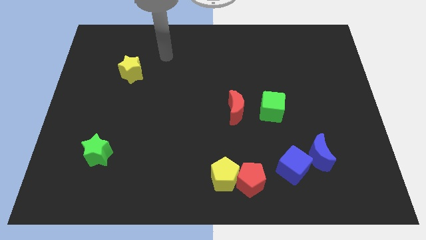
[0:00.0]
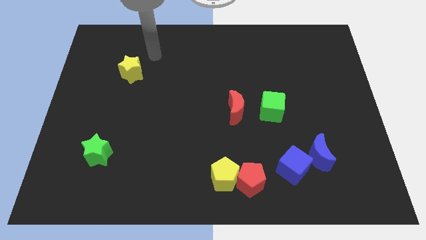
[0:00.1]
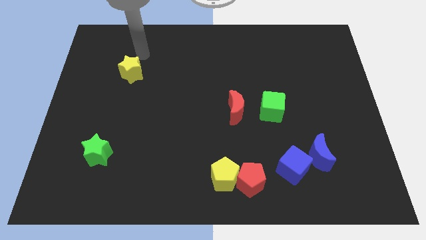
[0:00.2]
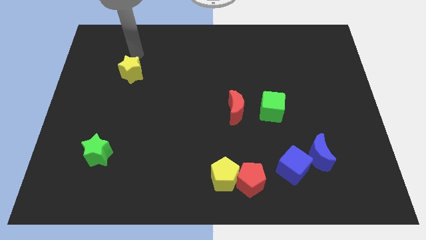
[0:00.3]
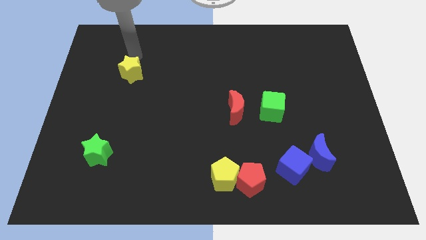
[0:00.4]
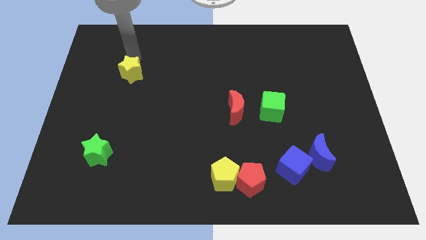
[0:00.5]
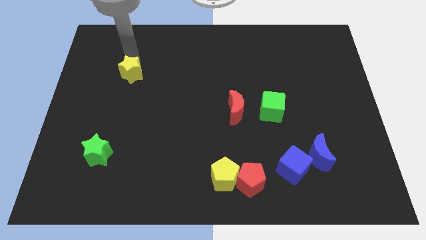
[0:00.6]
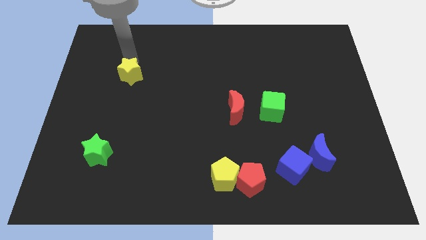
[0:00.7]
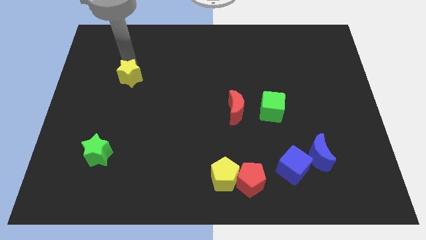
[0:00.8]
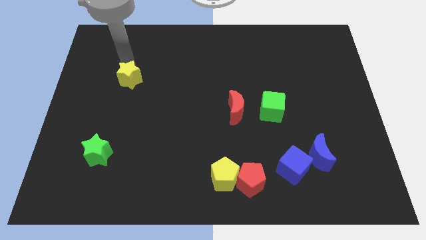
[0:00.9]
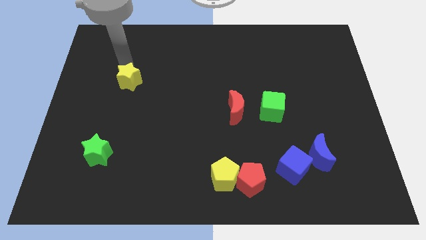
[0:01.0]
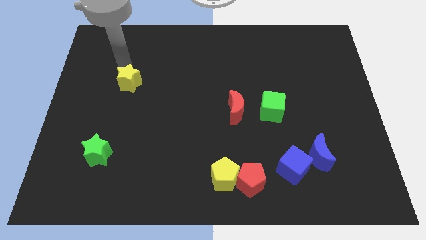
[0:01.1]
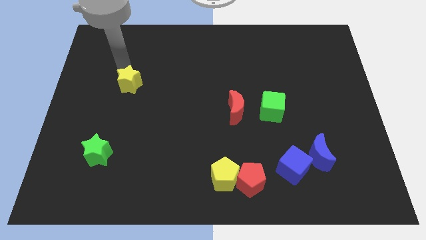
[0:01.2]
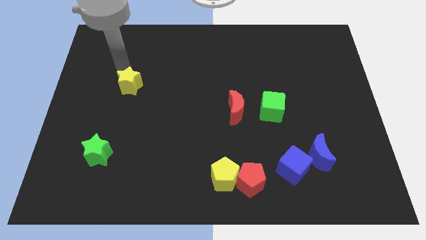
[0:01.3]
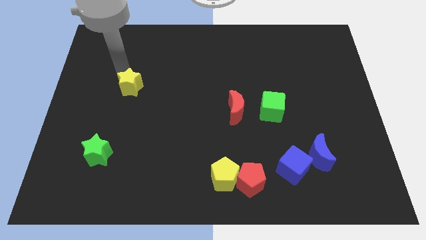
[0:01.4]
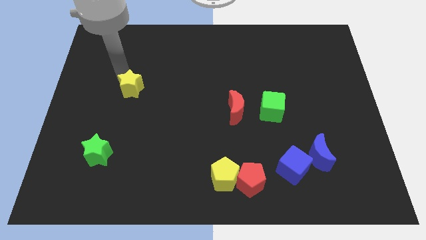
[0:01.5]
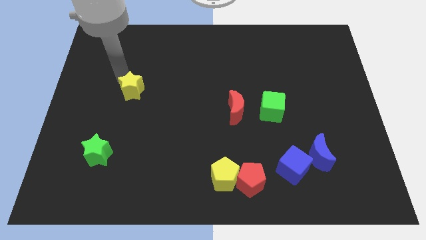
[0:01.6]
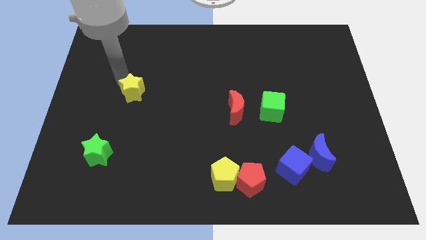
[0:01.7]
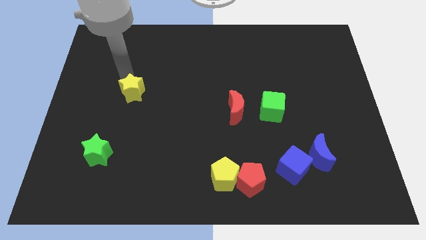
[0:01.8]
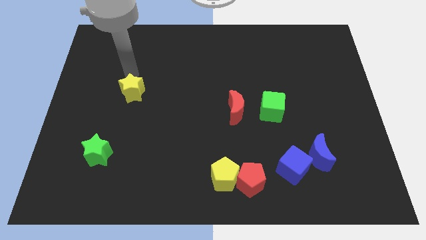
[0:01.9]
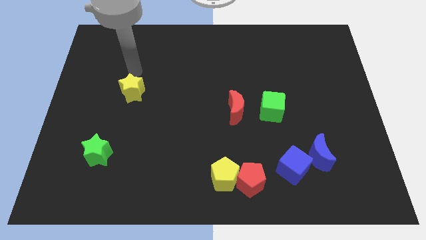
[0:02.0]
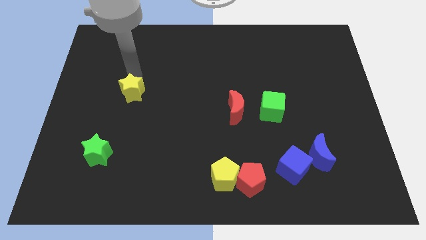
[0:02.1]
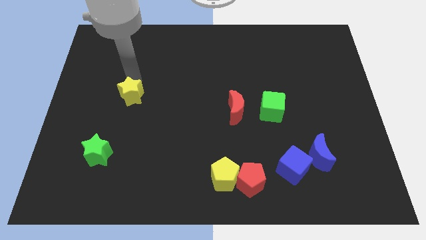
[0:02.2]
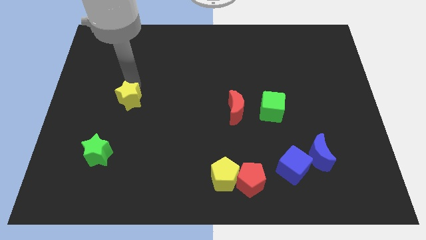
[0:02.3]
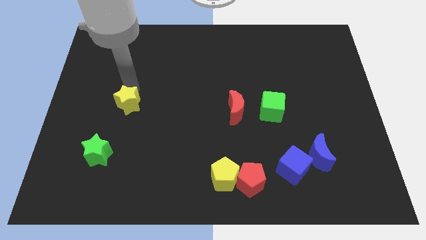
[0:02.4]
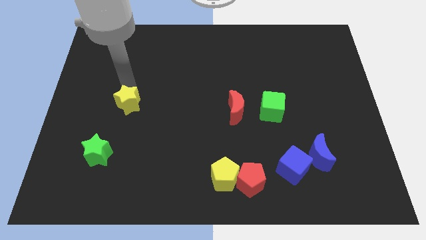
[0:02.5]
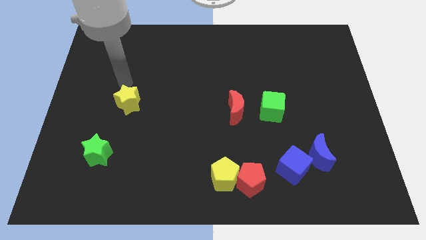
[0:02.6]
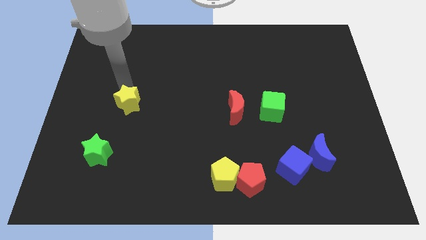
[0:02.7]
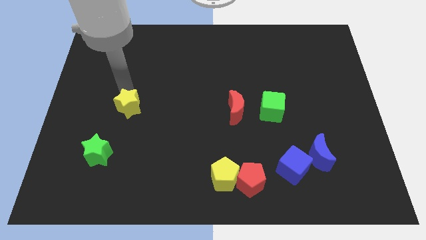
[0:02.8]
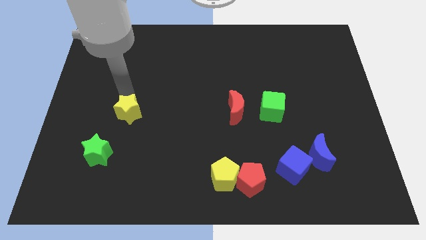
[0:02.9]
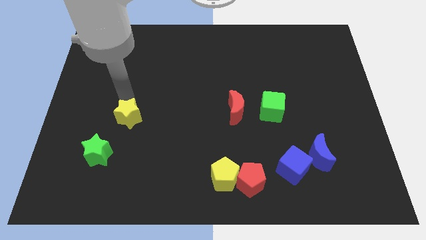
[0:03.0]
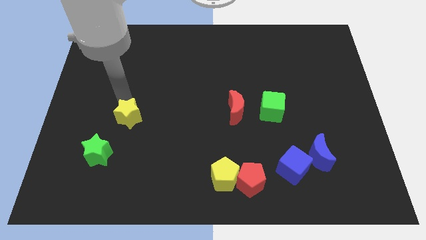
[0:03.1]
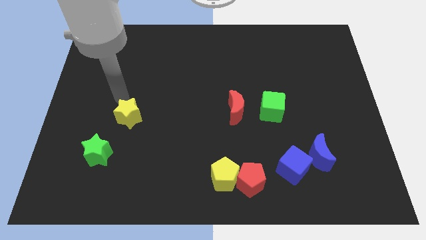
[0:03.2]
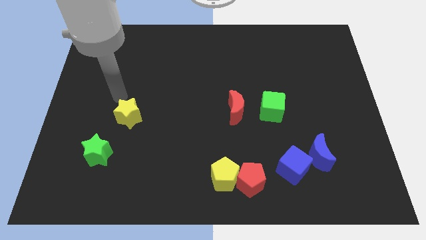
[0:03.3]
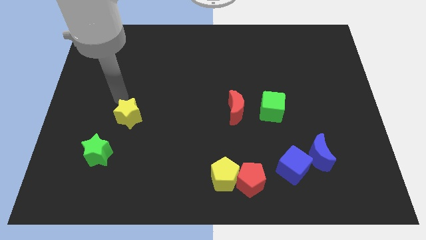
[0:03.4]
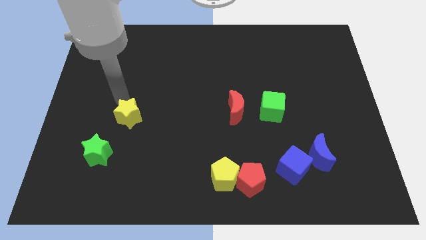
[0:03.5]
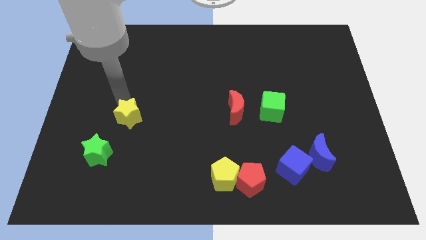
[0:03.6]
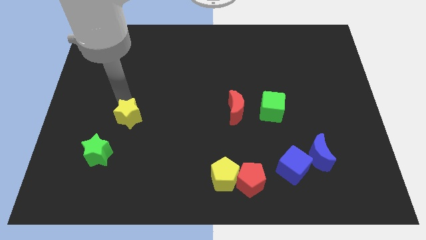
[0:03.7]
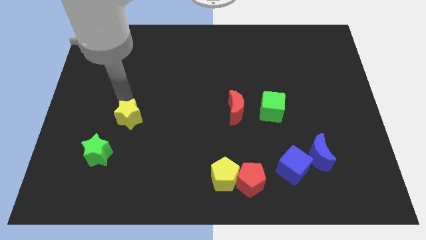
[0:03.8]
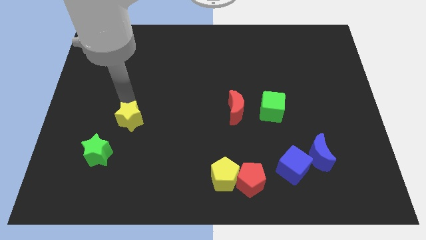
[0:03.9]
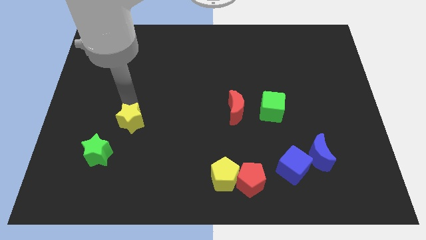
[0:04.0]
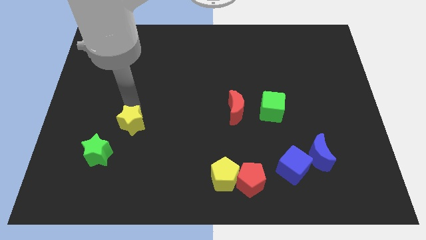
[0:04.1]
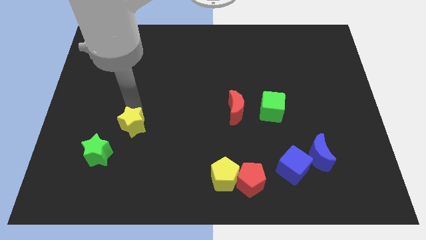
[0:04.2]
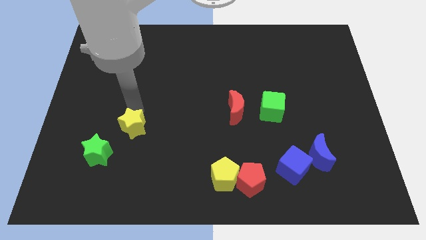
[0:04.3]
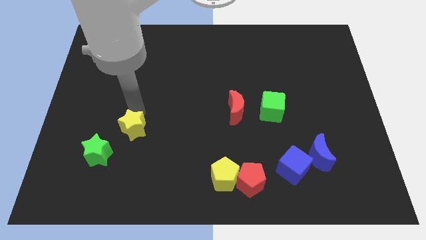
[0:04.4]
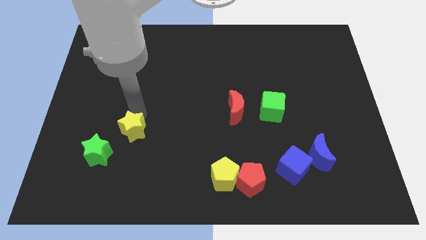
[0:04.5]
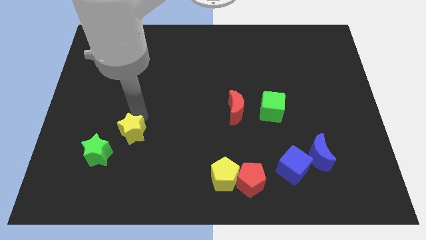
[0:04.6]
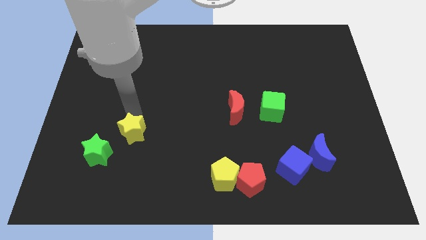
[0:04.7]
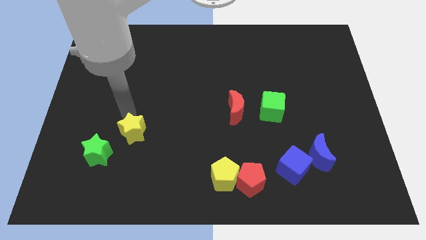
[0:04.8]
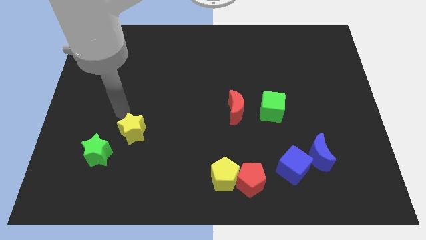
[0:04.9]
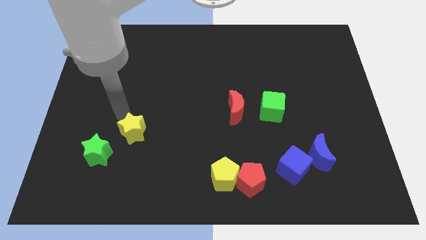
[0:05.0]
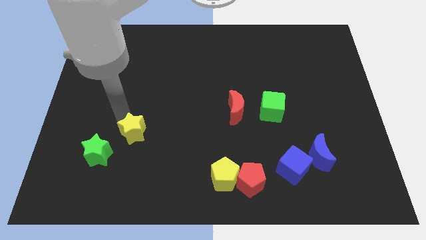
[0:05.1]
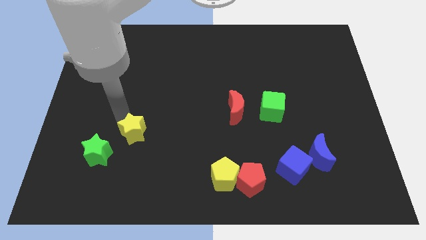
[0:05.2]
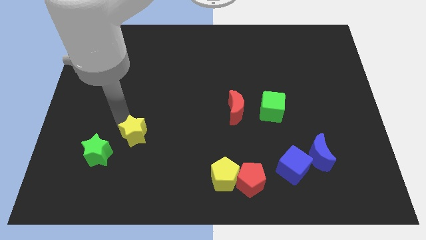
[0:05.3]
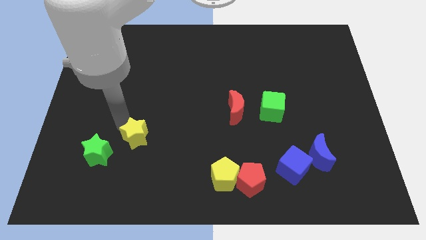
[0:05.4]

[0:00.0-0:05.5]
move the yellow star to the right side of the green star

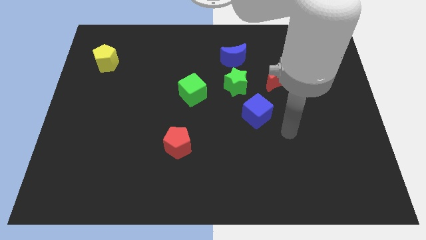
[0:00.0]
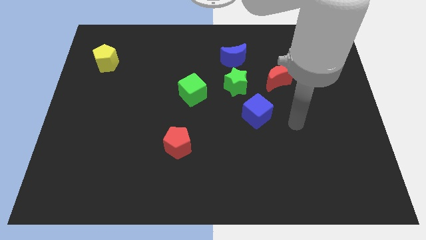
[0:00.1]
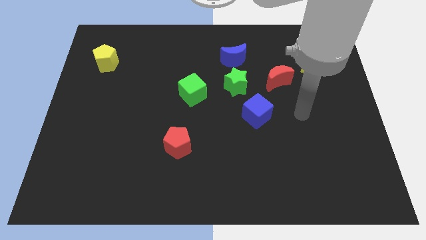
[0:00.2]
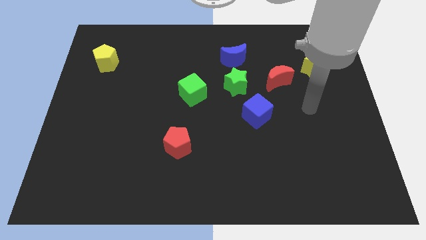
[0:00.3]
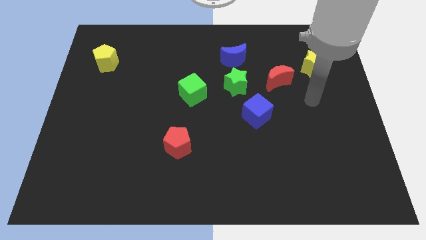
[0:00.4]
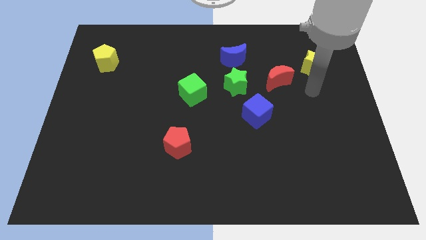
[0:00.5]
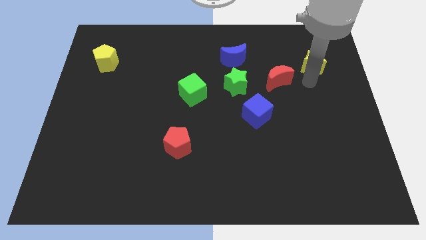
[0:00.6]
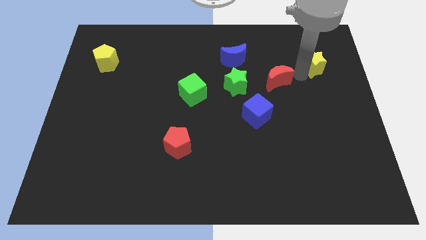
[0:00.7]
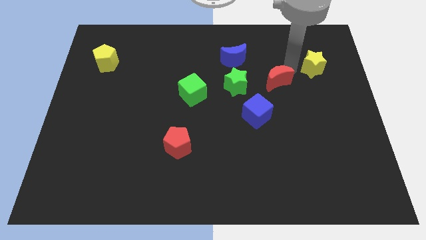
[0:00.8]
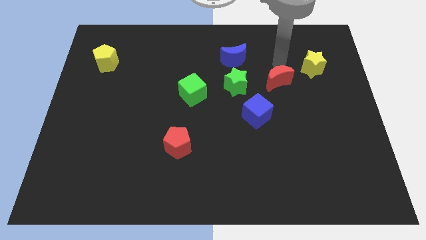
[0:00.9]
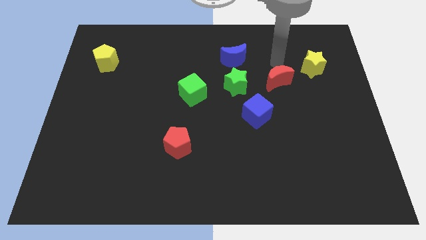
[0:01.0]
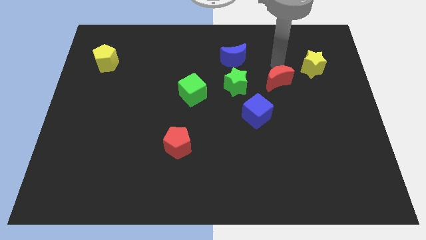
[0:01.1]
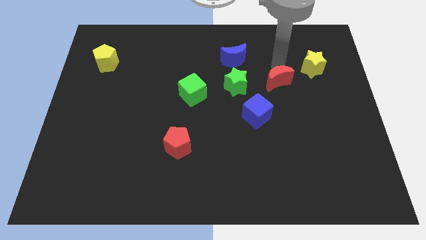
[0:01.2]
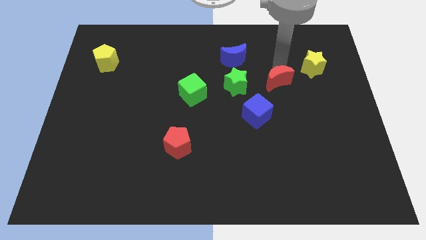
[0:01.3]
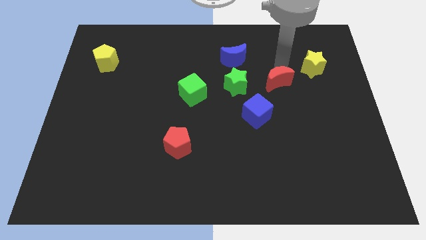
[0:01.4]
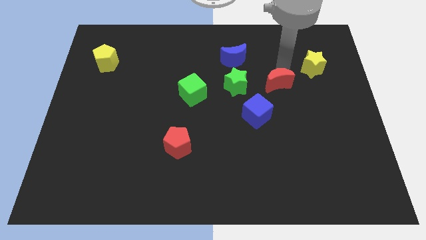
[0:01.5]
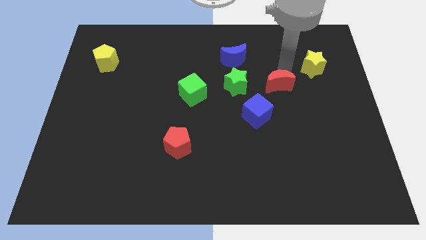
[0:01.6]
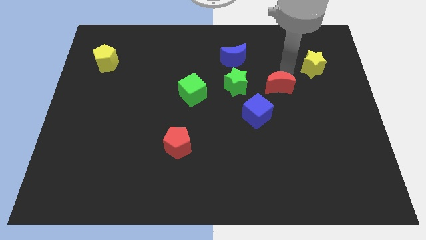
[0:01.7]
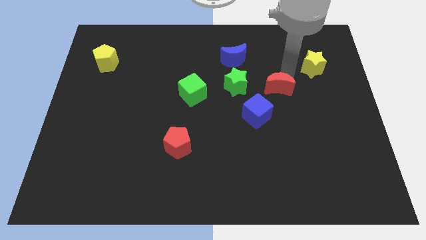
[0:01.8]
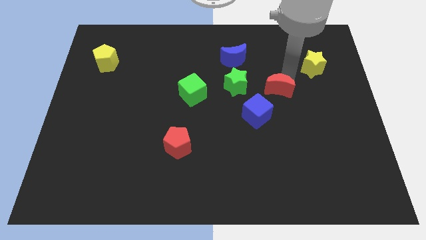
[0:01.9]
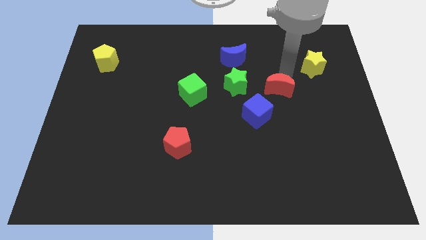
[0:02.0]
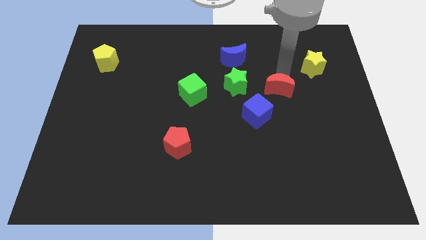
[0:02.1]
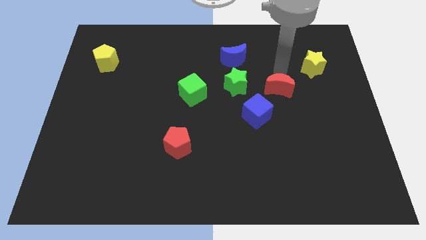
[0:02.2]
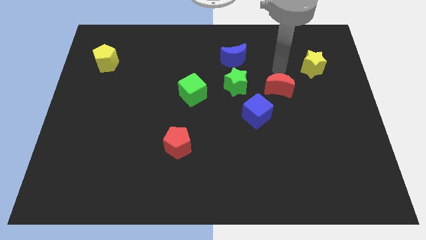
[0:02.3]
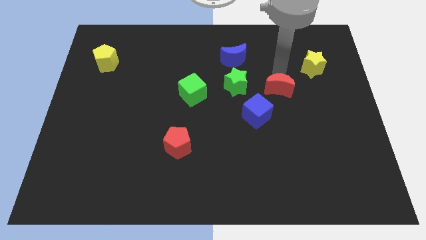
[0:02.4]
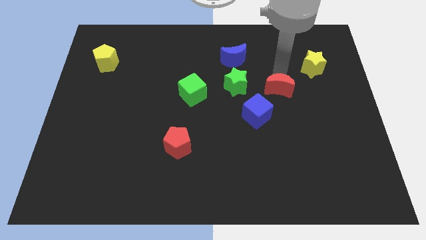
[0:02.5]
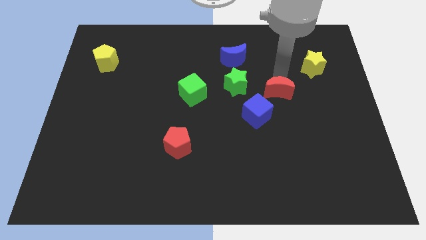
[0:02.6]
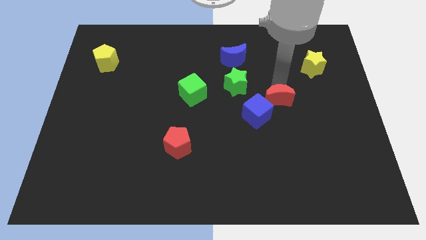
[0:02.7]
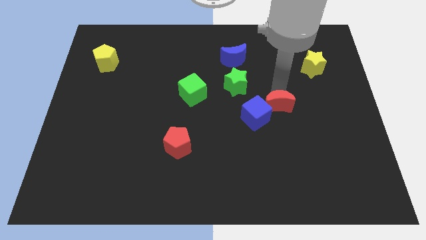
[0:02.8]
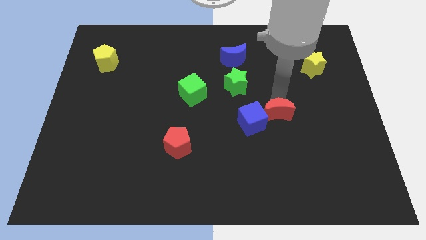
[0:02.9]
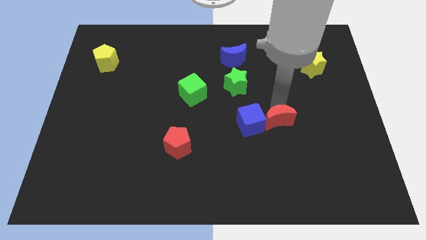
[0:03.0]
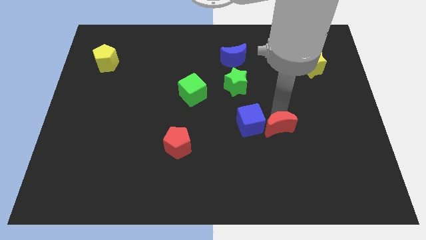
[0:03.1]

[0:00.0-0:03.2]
put the red moon to the bottom right side of the blue cube
